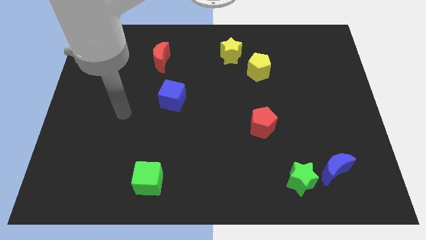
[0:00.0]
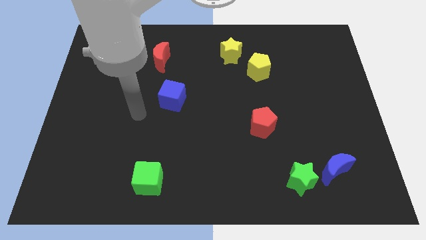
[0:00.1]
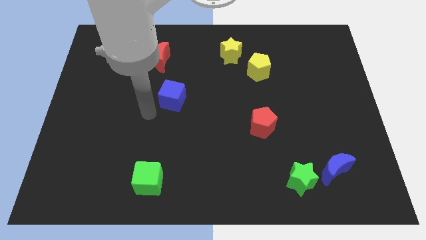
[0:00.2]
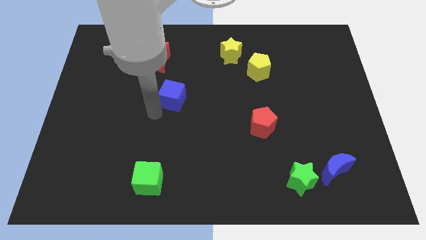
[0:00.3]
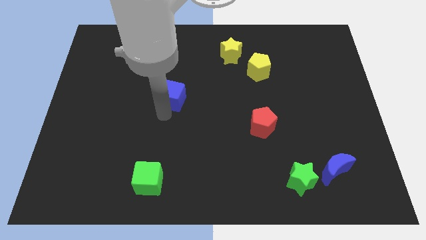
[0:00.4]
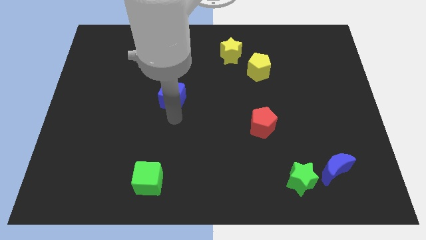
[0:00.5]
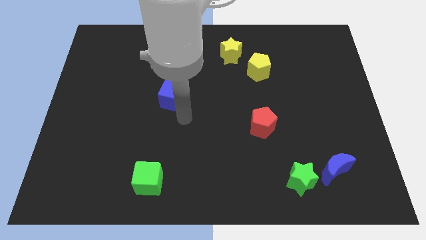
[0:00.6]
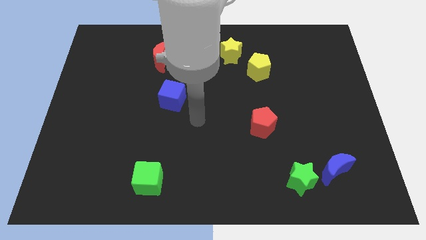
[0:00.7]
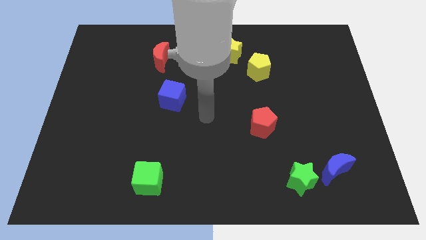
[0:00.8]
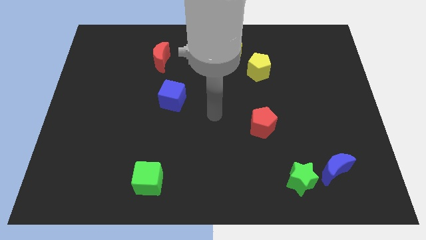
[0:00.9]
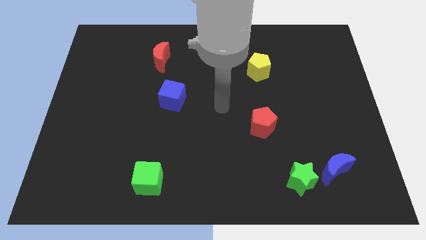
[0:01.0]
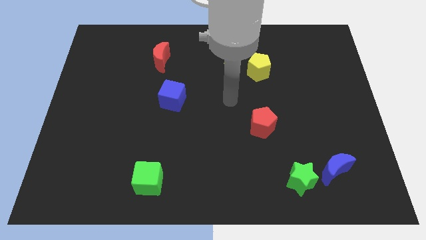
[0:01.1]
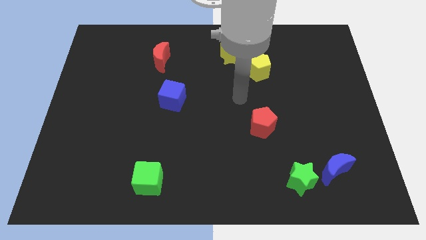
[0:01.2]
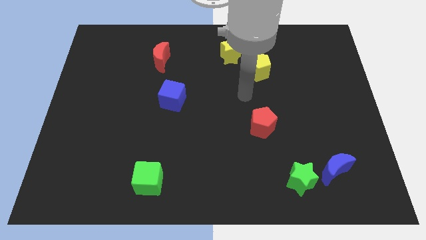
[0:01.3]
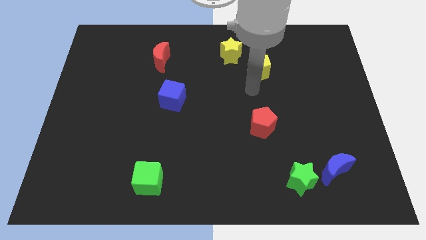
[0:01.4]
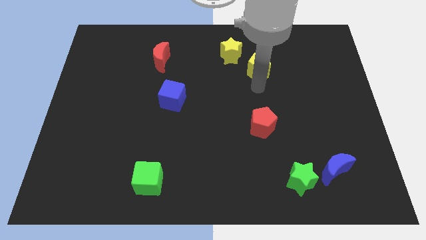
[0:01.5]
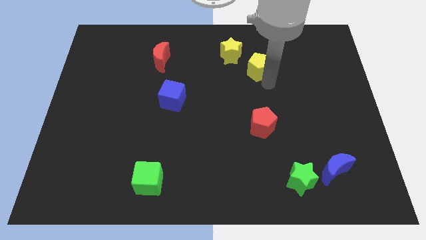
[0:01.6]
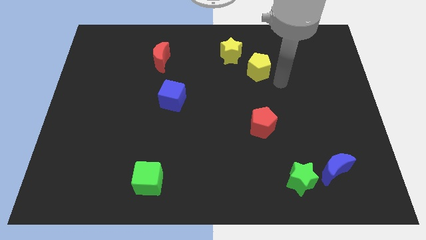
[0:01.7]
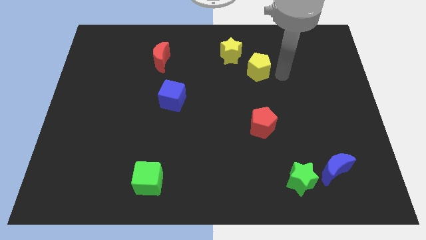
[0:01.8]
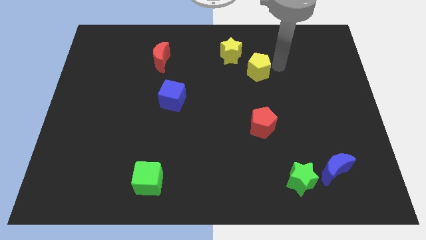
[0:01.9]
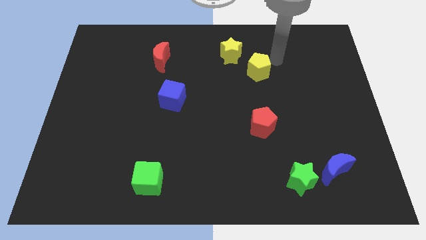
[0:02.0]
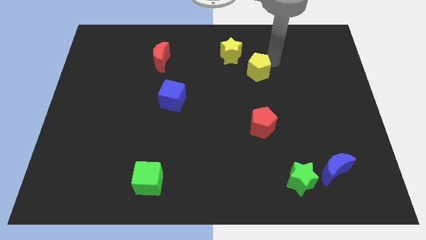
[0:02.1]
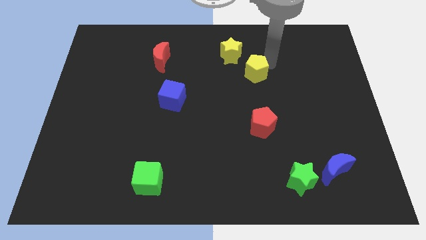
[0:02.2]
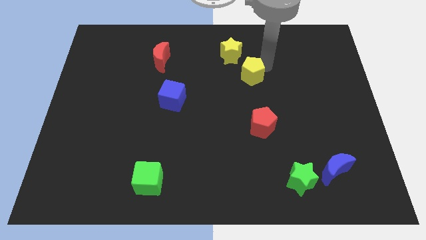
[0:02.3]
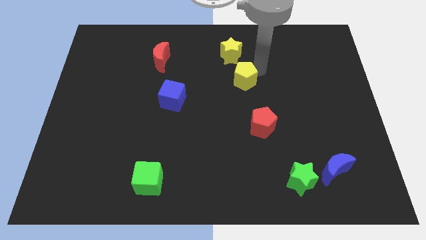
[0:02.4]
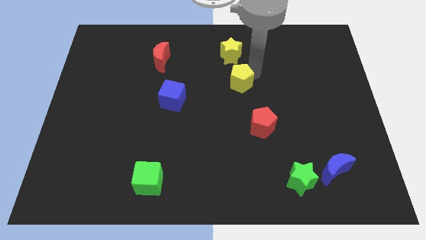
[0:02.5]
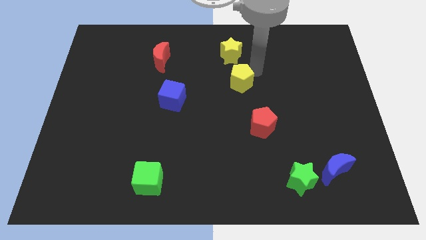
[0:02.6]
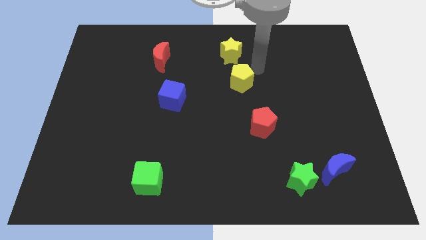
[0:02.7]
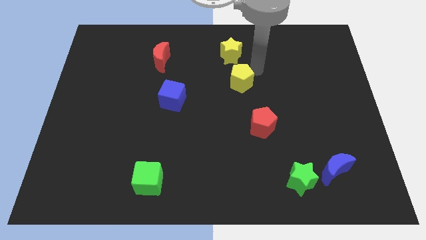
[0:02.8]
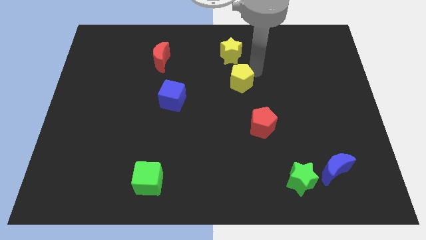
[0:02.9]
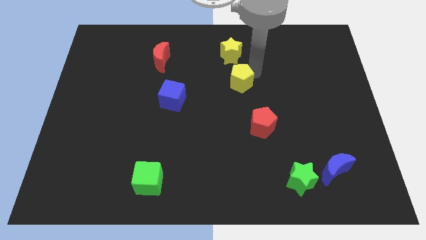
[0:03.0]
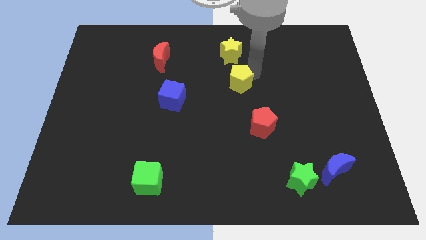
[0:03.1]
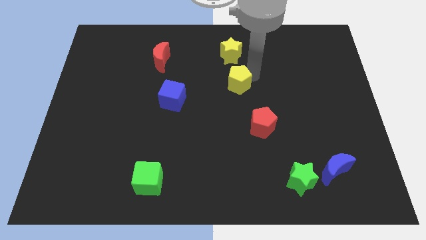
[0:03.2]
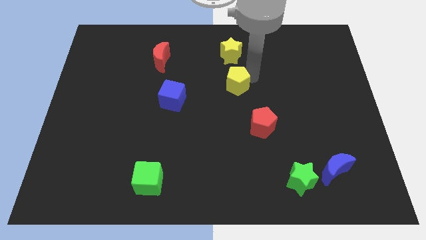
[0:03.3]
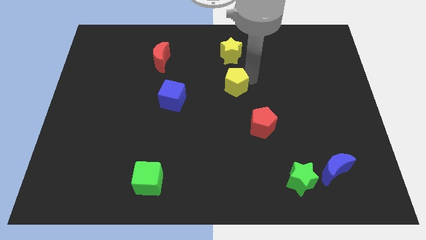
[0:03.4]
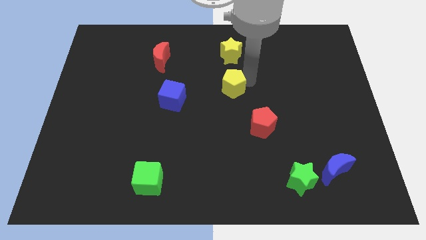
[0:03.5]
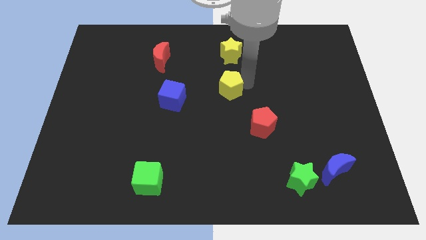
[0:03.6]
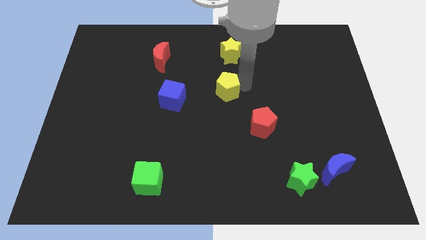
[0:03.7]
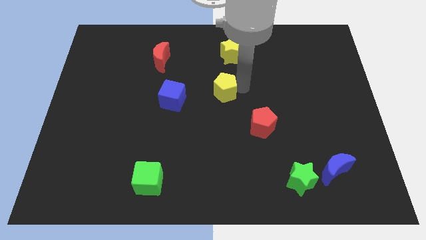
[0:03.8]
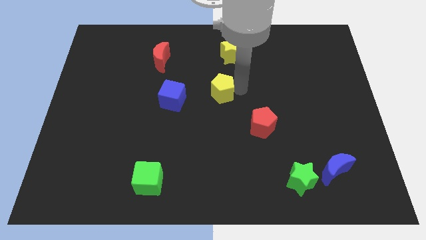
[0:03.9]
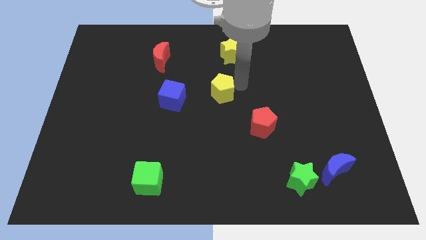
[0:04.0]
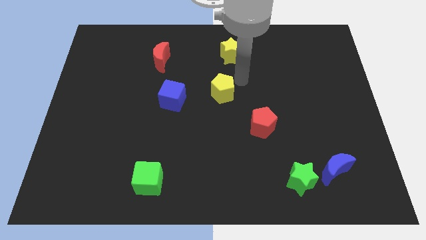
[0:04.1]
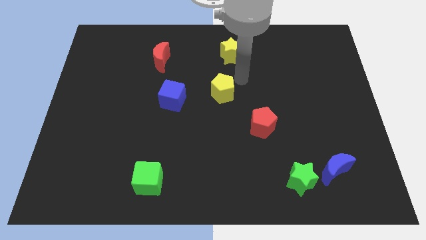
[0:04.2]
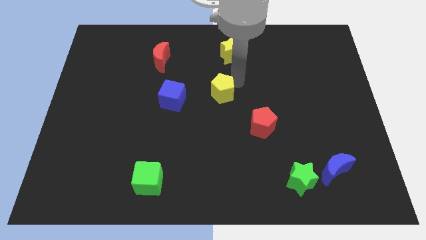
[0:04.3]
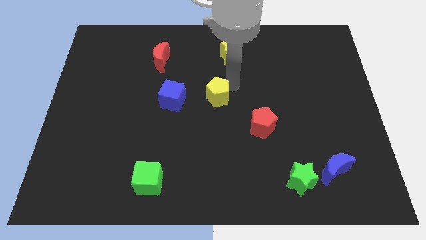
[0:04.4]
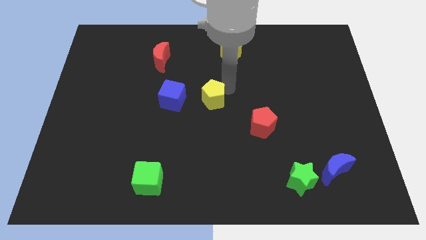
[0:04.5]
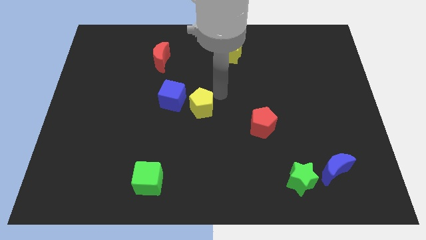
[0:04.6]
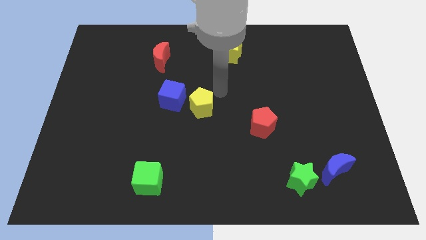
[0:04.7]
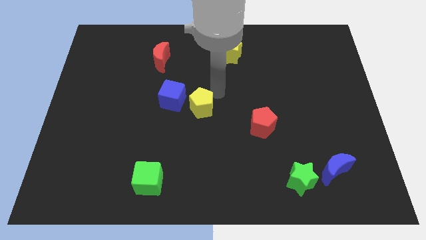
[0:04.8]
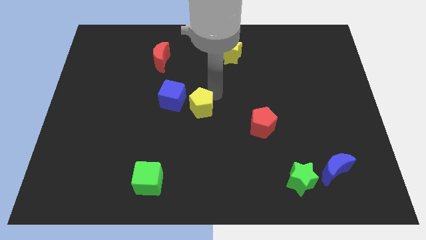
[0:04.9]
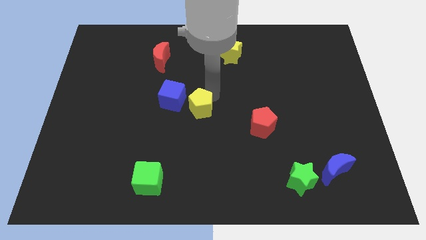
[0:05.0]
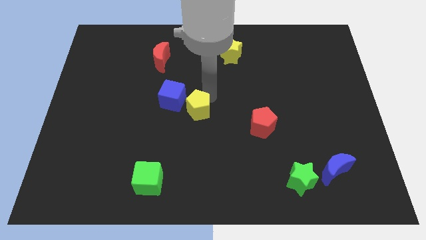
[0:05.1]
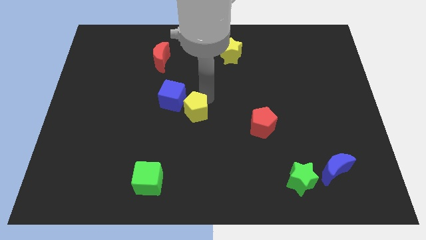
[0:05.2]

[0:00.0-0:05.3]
move the yellow pentagon downwards and left

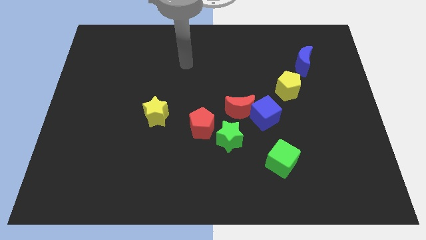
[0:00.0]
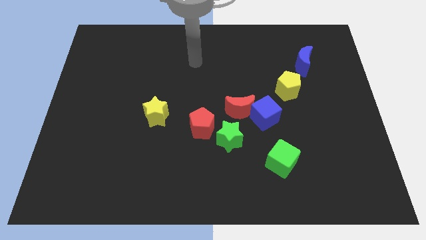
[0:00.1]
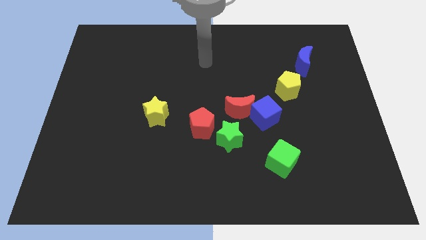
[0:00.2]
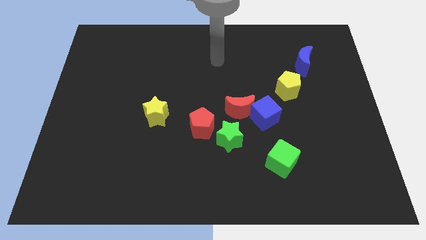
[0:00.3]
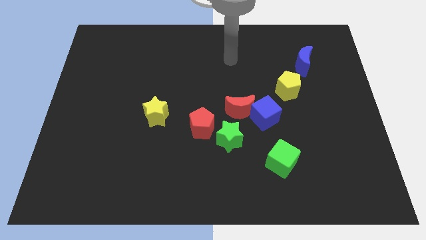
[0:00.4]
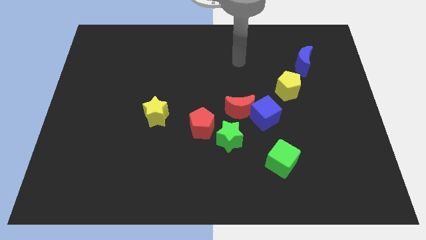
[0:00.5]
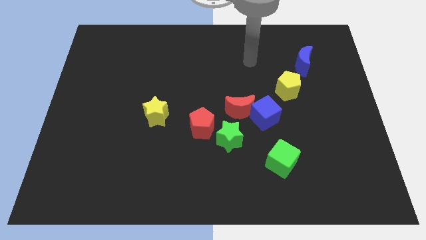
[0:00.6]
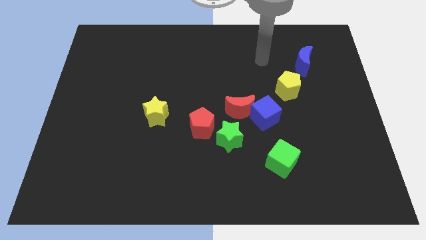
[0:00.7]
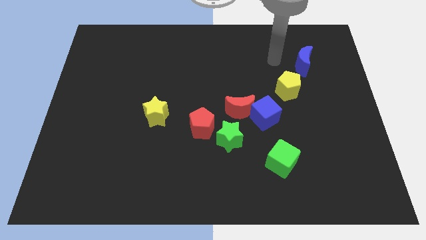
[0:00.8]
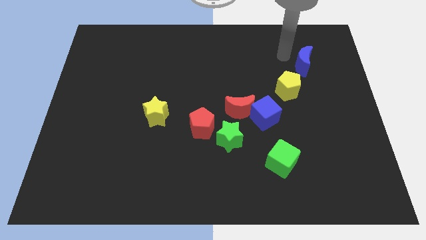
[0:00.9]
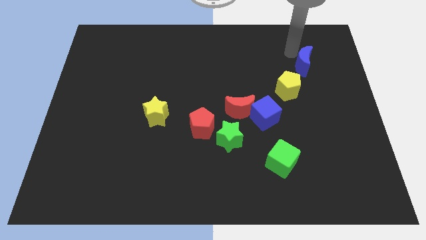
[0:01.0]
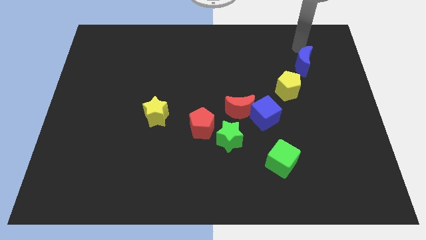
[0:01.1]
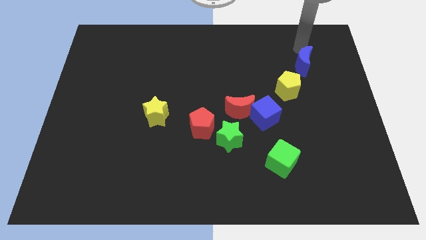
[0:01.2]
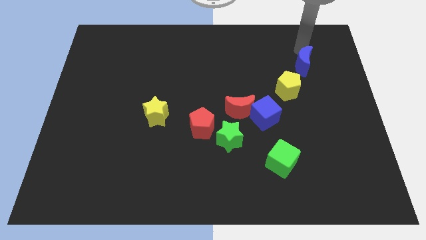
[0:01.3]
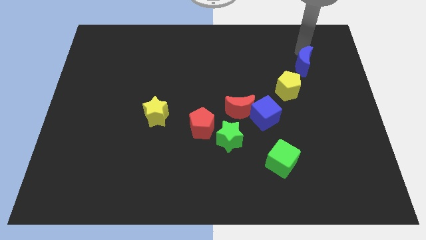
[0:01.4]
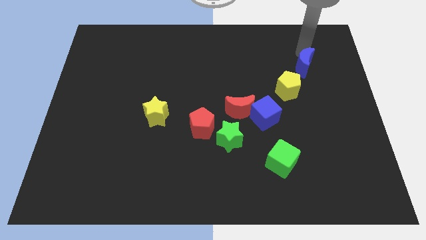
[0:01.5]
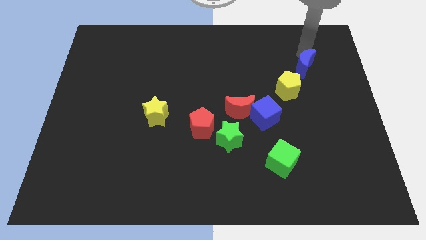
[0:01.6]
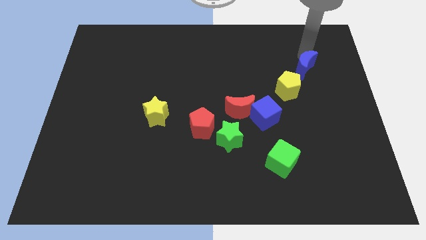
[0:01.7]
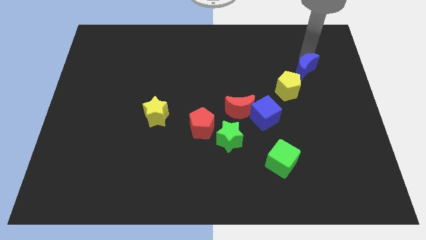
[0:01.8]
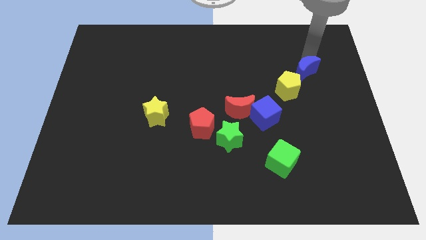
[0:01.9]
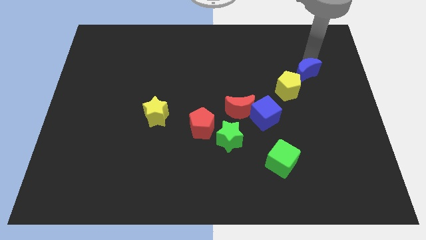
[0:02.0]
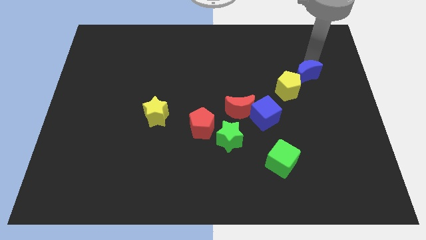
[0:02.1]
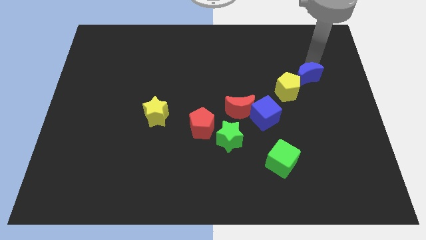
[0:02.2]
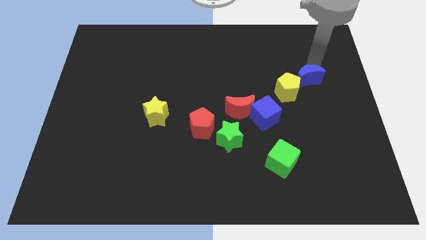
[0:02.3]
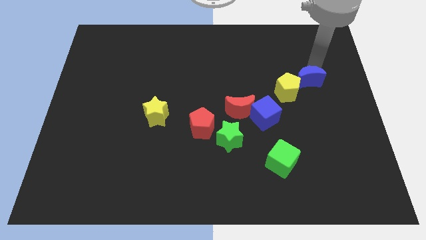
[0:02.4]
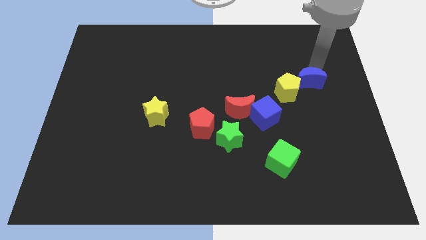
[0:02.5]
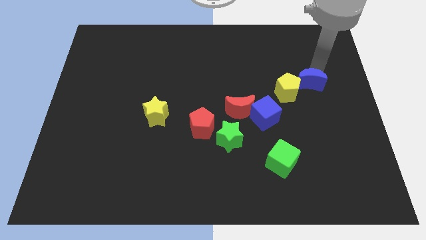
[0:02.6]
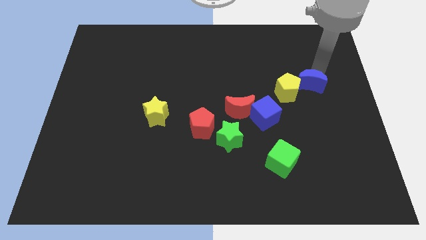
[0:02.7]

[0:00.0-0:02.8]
move the blue moon downwards a little

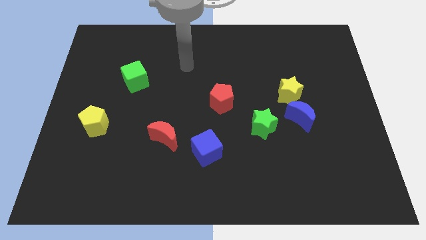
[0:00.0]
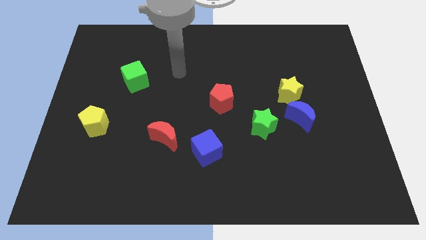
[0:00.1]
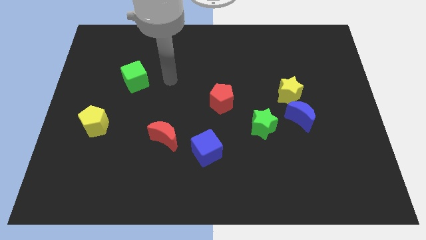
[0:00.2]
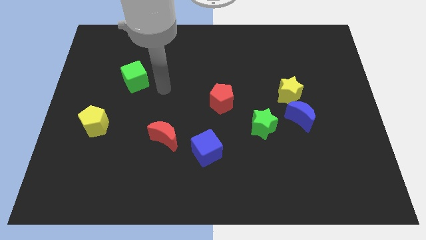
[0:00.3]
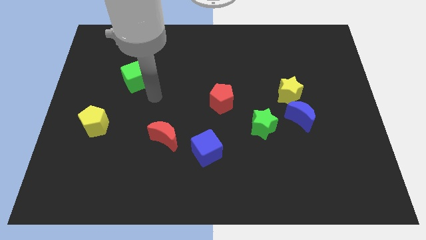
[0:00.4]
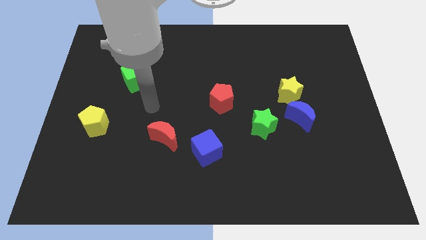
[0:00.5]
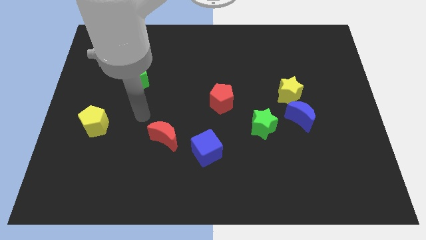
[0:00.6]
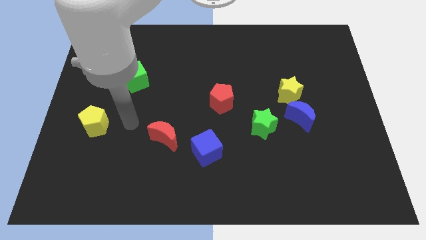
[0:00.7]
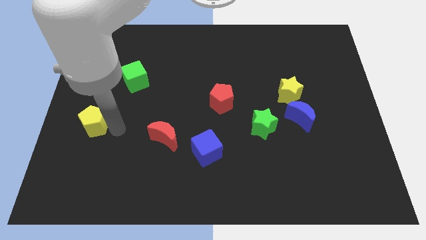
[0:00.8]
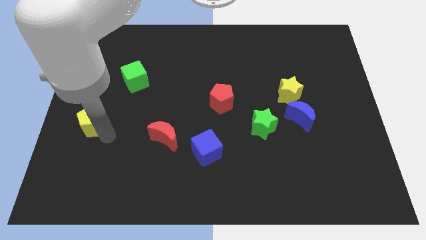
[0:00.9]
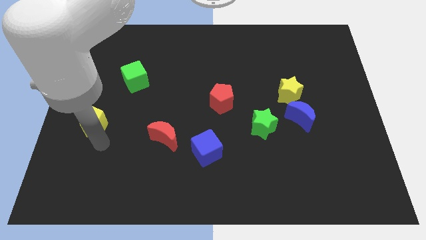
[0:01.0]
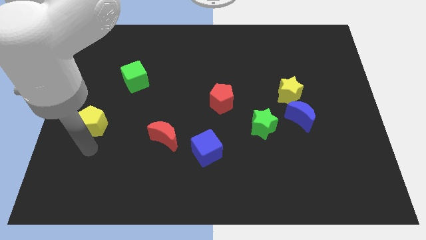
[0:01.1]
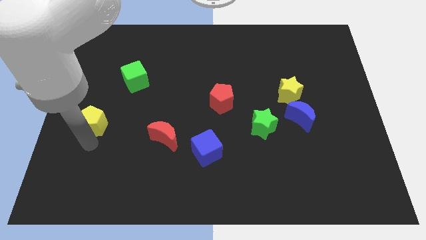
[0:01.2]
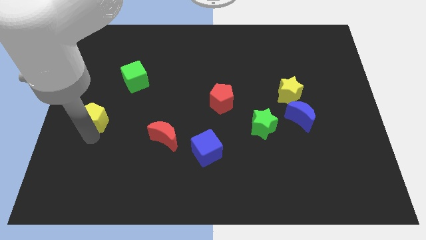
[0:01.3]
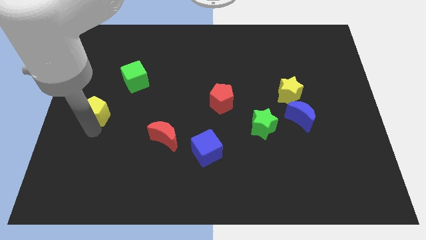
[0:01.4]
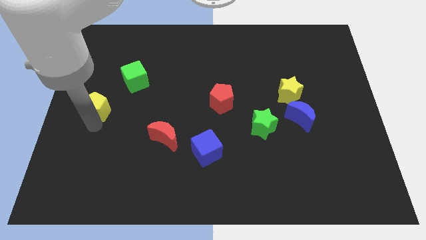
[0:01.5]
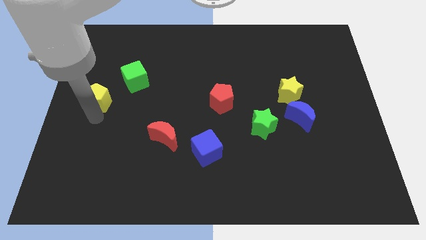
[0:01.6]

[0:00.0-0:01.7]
push the yellow pentagon slightly upwards
